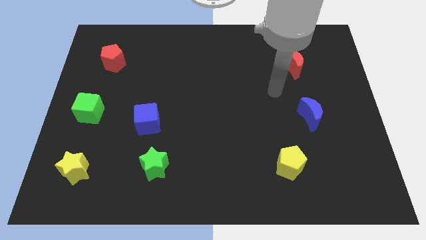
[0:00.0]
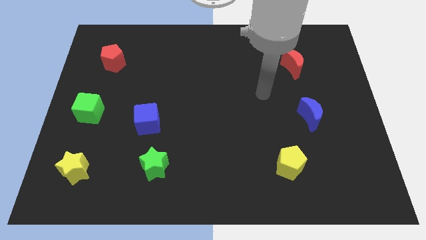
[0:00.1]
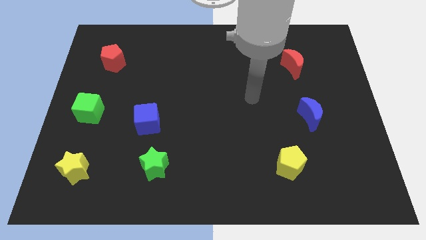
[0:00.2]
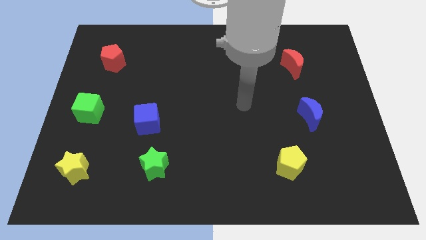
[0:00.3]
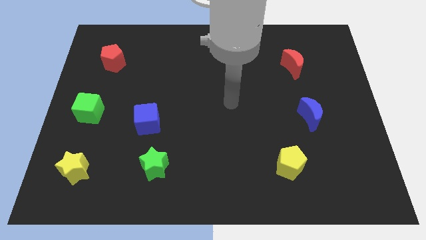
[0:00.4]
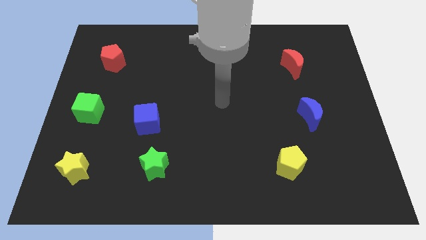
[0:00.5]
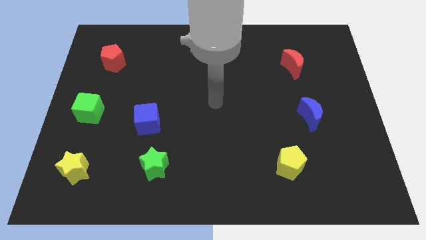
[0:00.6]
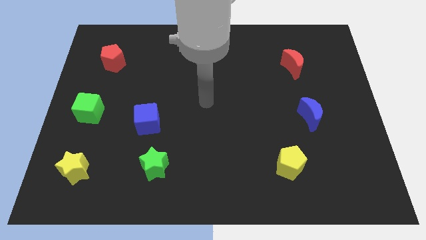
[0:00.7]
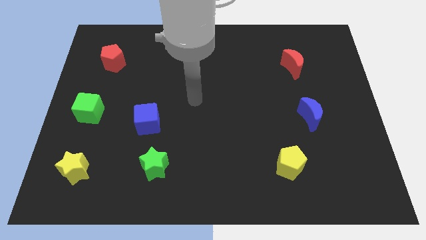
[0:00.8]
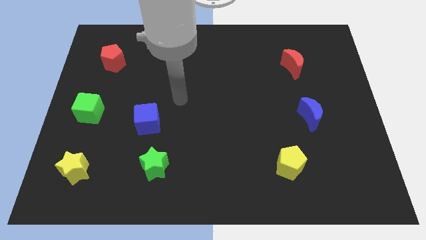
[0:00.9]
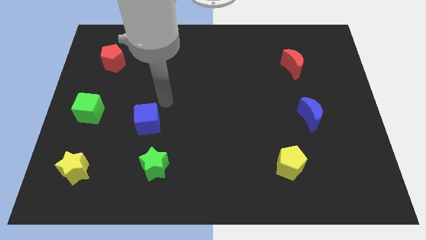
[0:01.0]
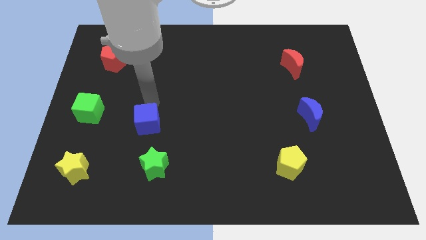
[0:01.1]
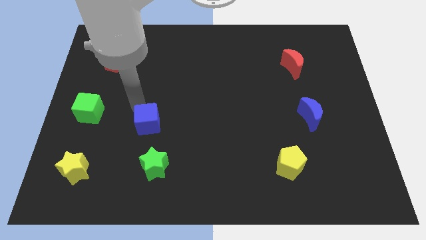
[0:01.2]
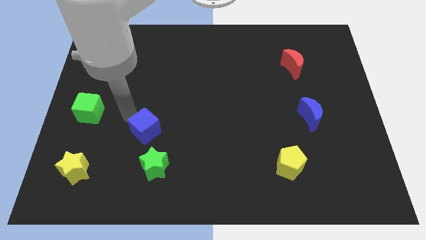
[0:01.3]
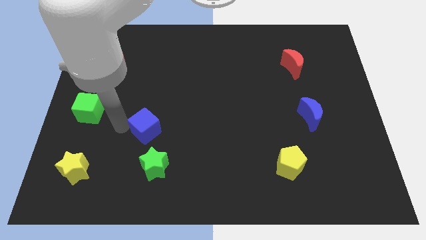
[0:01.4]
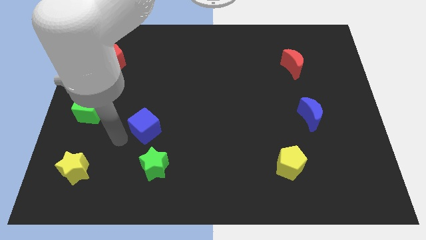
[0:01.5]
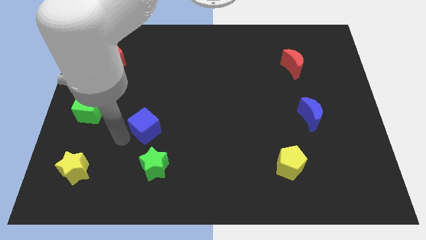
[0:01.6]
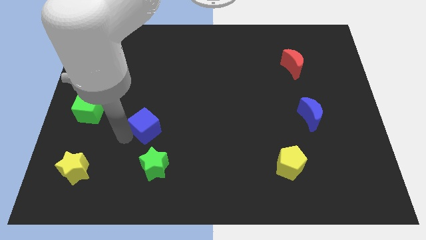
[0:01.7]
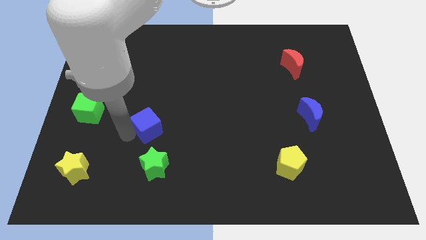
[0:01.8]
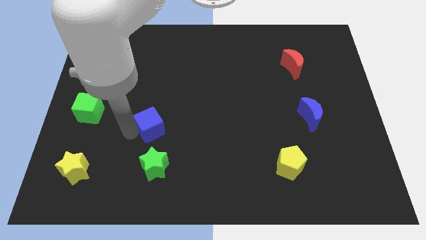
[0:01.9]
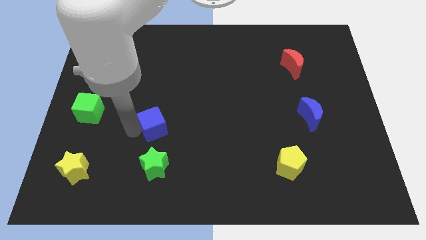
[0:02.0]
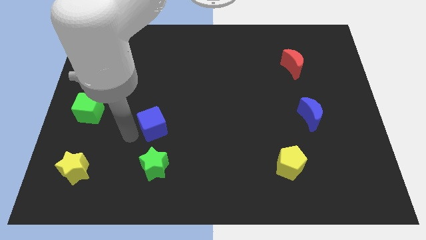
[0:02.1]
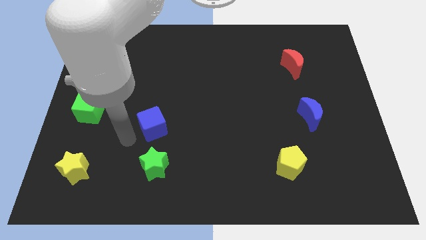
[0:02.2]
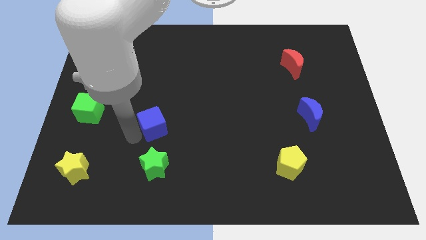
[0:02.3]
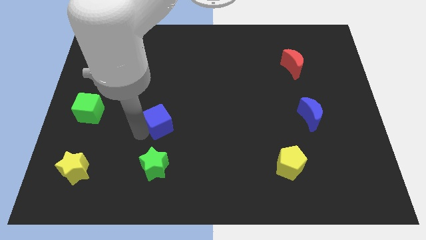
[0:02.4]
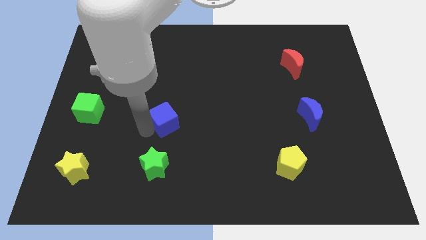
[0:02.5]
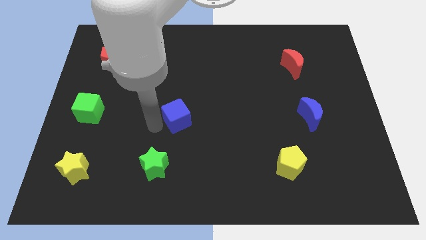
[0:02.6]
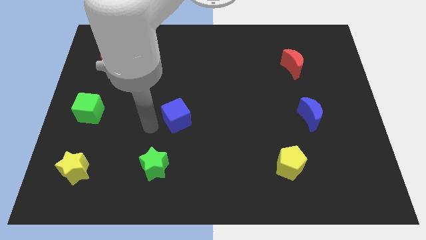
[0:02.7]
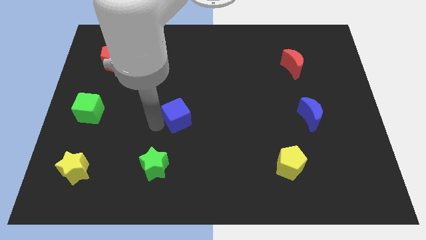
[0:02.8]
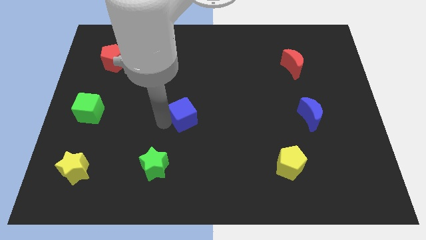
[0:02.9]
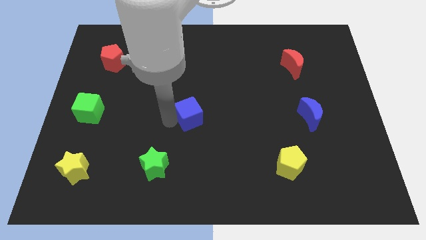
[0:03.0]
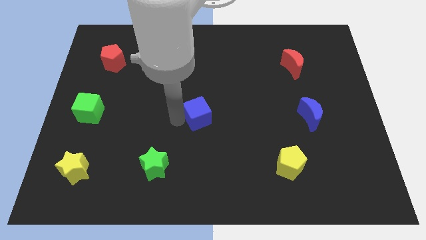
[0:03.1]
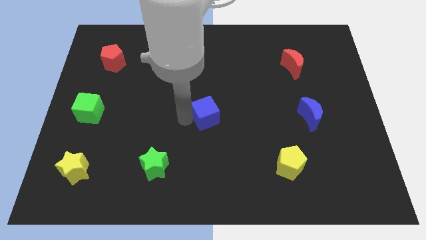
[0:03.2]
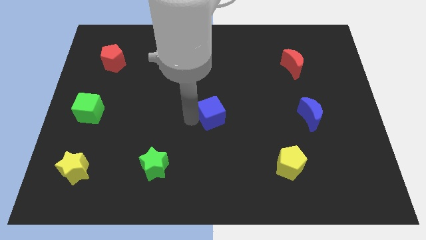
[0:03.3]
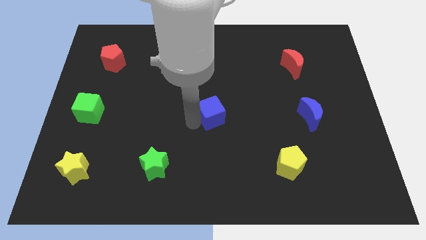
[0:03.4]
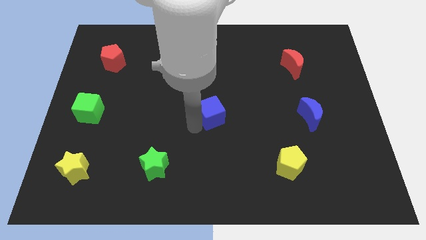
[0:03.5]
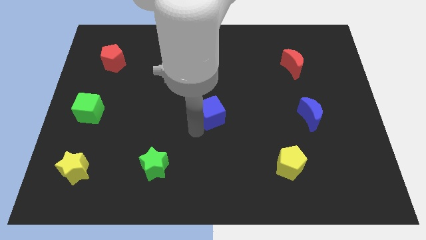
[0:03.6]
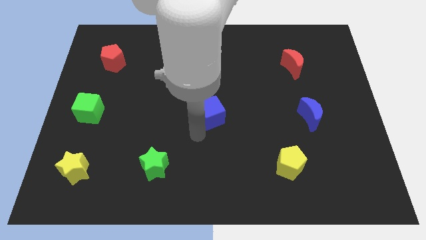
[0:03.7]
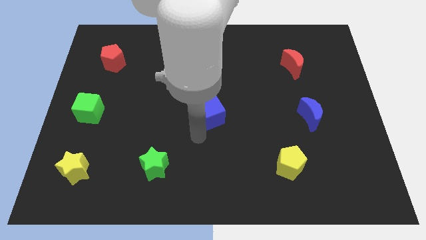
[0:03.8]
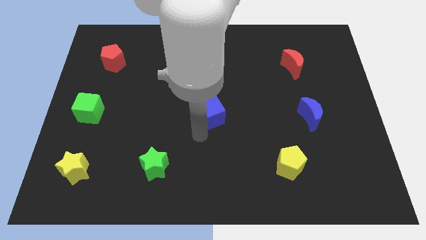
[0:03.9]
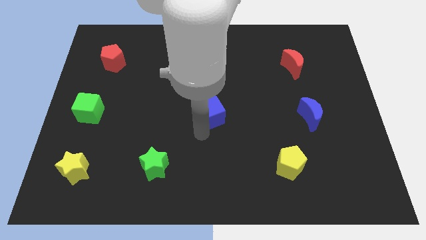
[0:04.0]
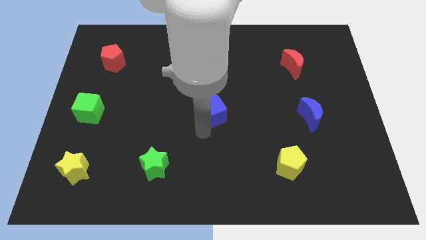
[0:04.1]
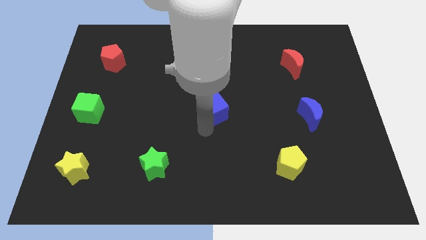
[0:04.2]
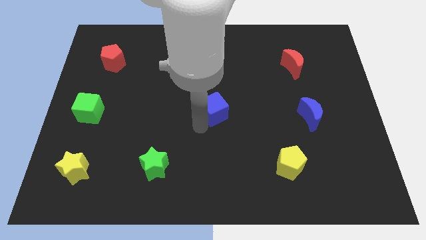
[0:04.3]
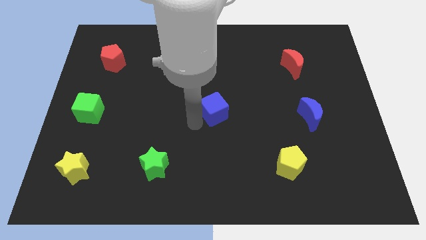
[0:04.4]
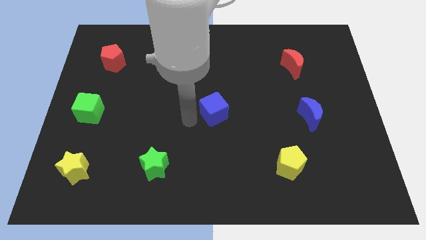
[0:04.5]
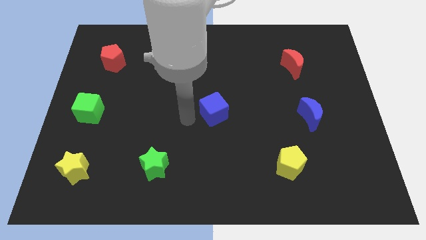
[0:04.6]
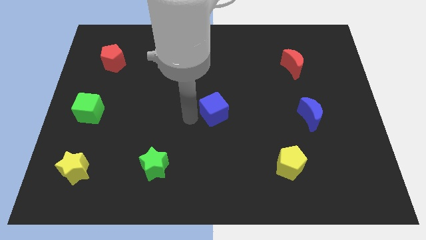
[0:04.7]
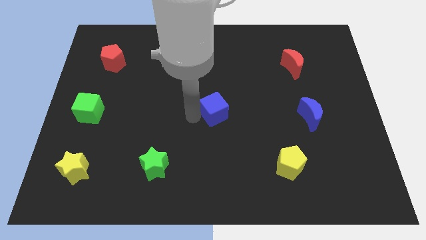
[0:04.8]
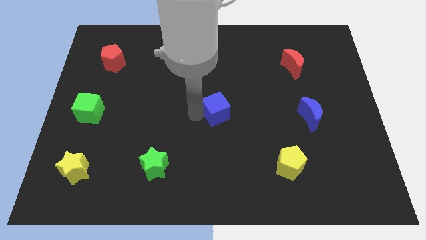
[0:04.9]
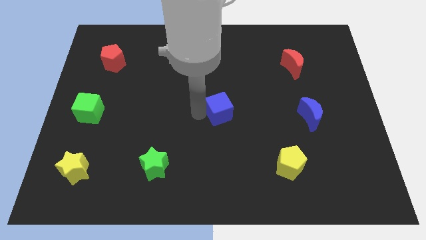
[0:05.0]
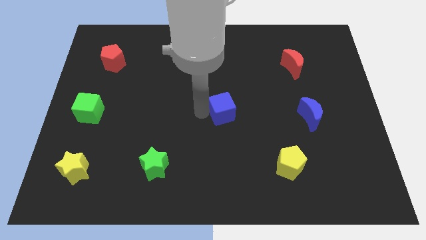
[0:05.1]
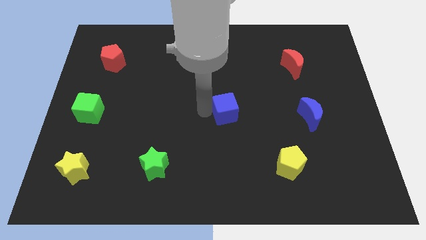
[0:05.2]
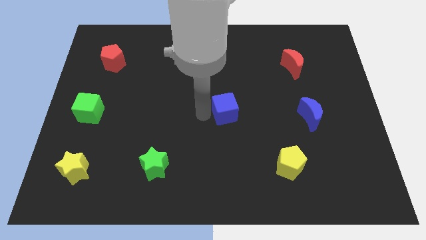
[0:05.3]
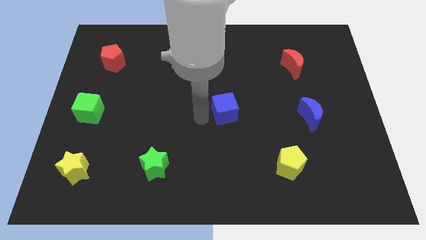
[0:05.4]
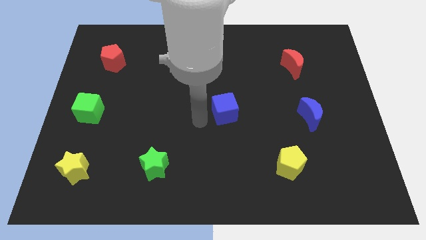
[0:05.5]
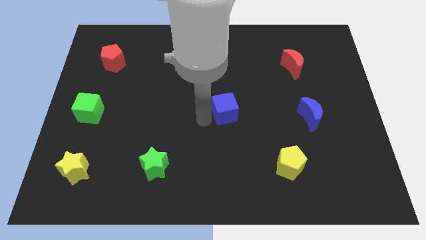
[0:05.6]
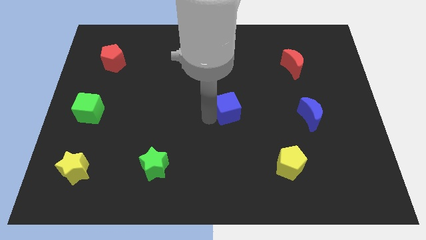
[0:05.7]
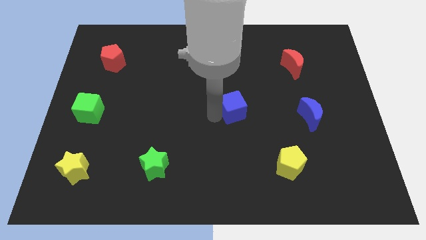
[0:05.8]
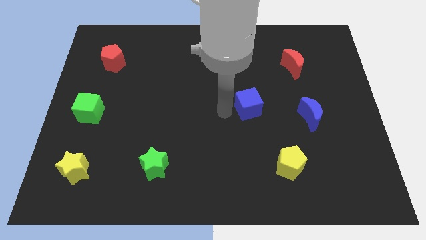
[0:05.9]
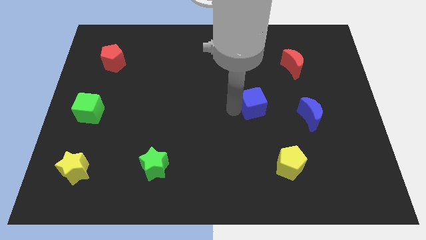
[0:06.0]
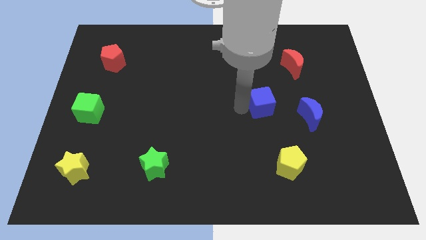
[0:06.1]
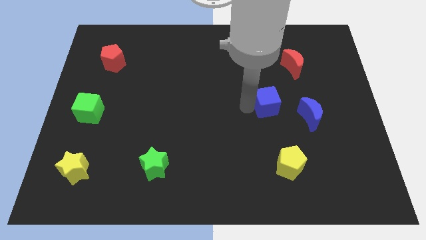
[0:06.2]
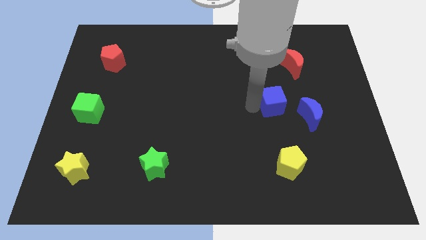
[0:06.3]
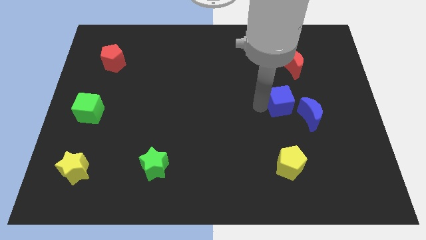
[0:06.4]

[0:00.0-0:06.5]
slide the blue cube to the bottom side of the red moon

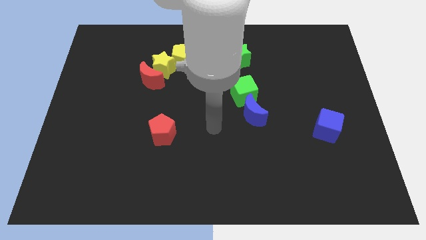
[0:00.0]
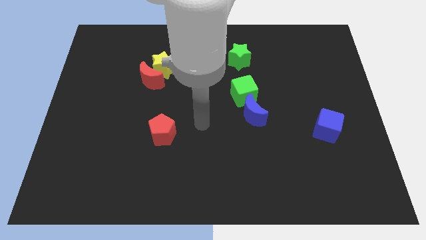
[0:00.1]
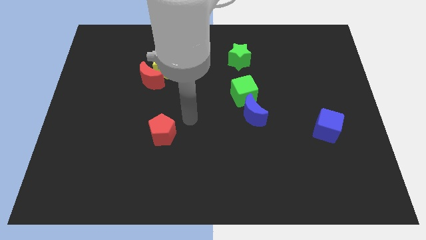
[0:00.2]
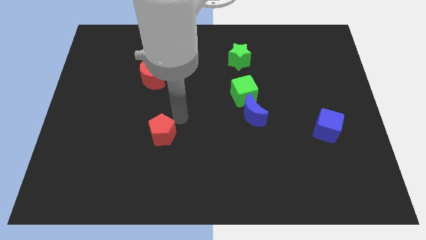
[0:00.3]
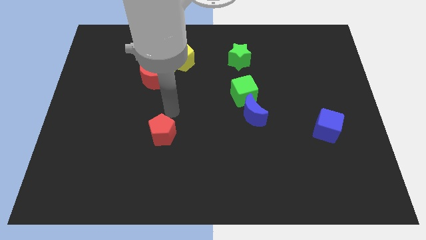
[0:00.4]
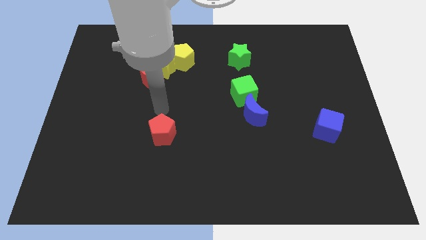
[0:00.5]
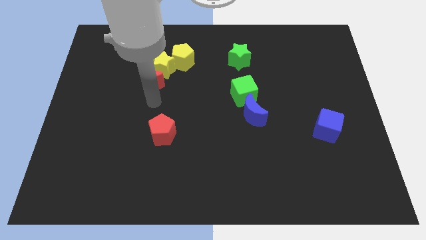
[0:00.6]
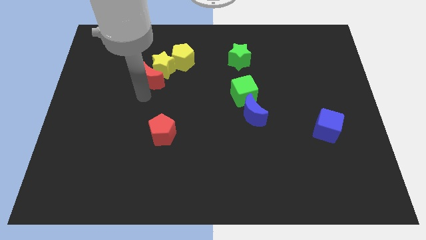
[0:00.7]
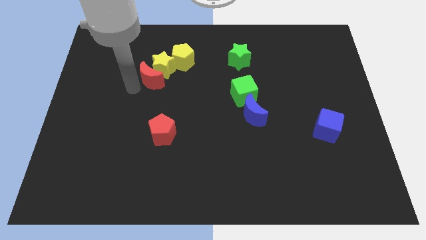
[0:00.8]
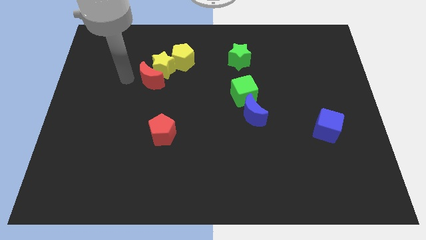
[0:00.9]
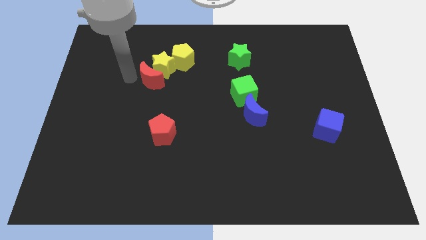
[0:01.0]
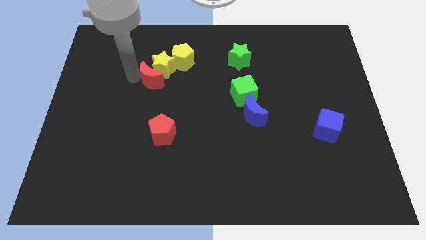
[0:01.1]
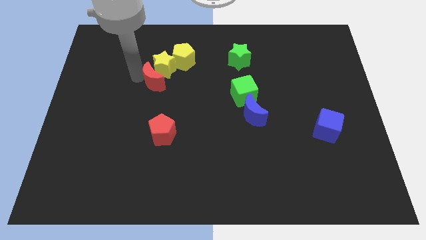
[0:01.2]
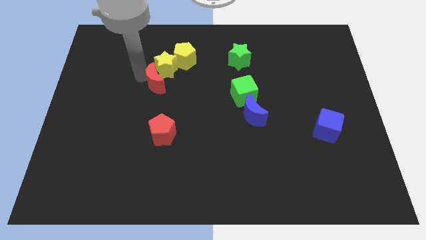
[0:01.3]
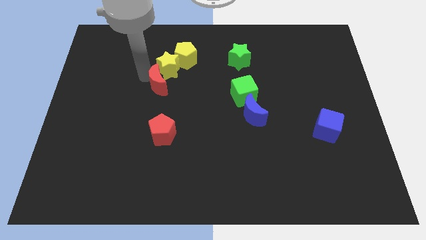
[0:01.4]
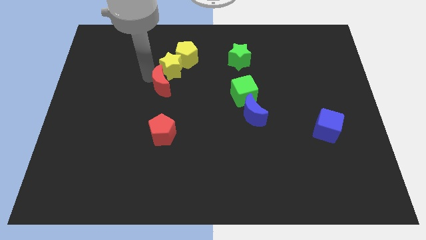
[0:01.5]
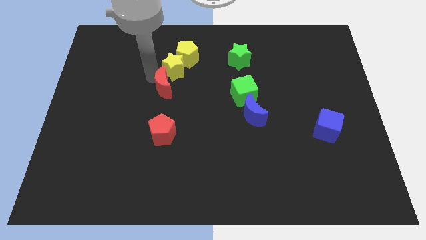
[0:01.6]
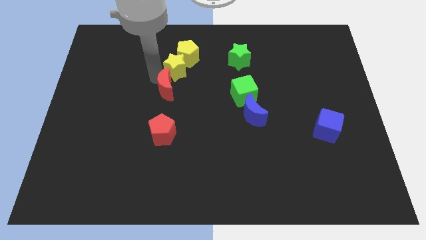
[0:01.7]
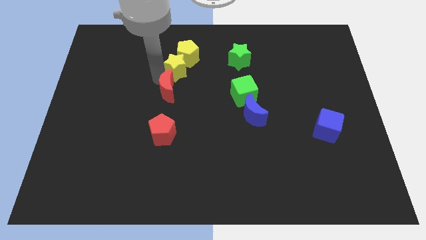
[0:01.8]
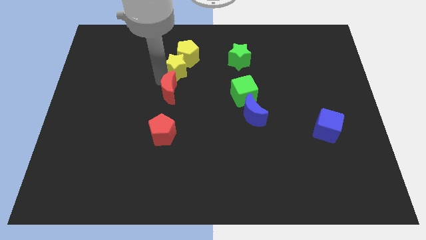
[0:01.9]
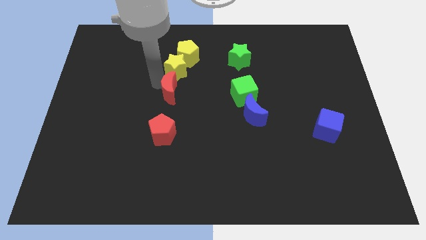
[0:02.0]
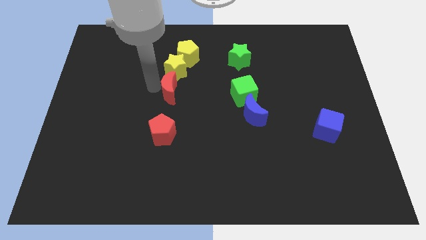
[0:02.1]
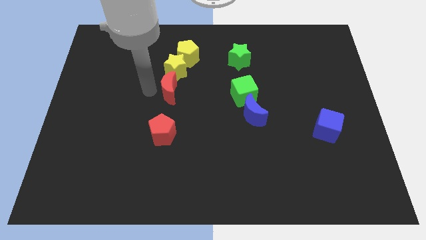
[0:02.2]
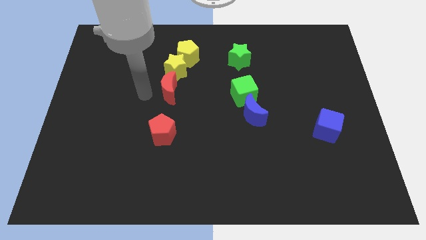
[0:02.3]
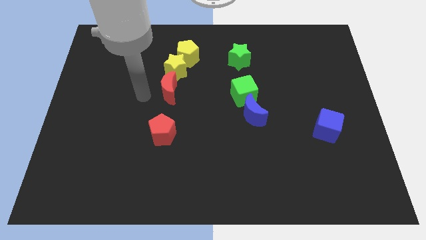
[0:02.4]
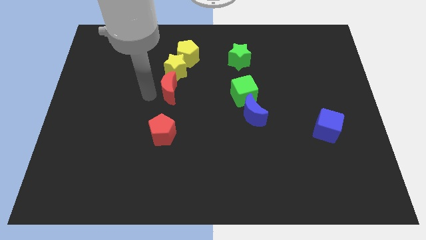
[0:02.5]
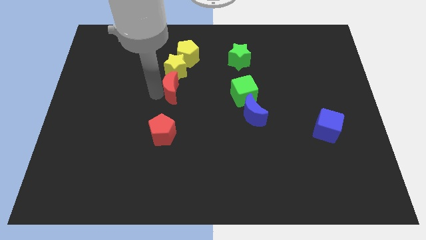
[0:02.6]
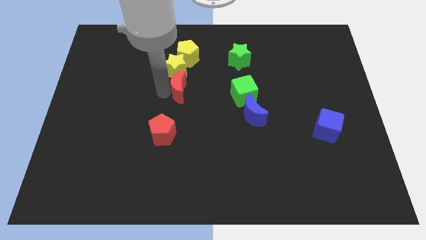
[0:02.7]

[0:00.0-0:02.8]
put the red moon to the bottom right side of the yellow star
